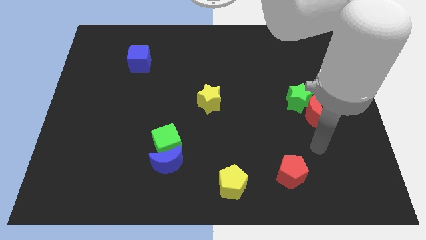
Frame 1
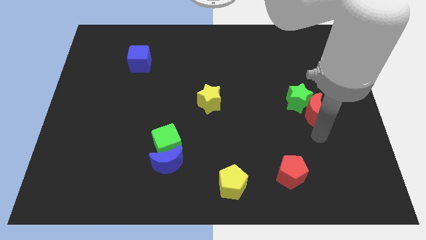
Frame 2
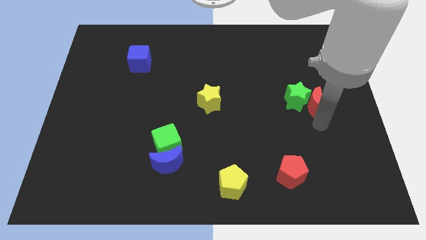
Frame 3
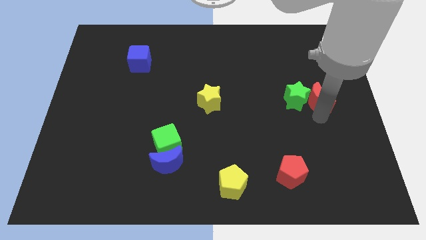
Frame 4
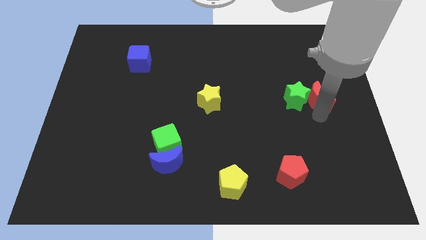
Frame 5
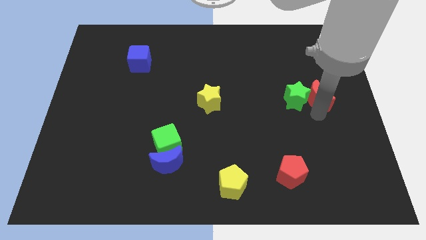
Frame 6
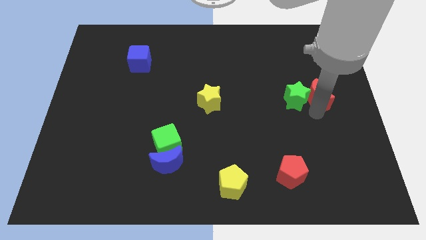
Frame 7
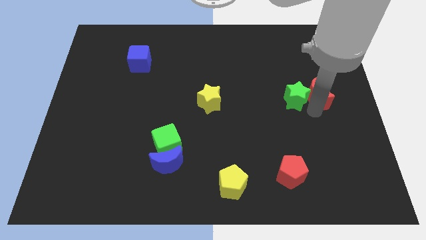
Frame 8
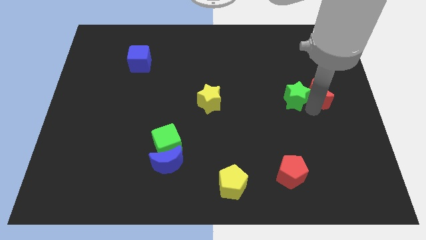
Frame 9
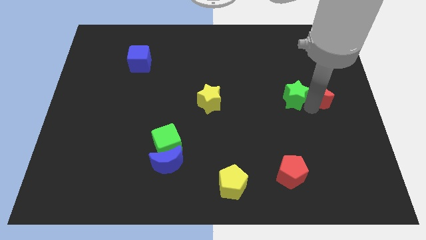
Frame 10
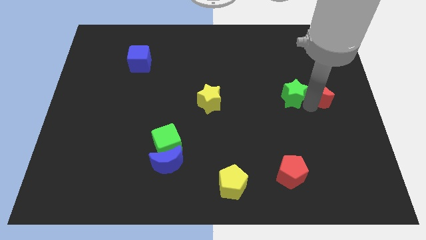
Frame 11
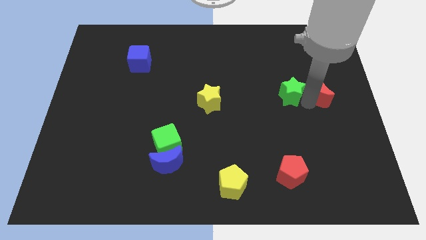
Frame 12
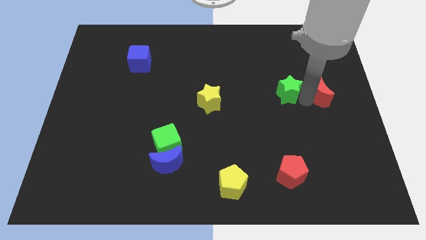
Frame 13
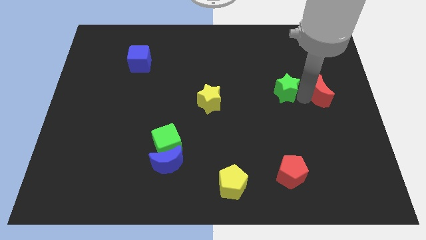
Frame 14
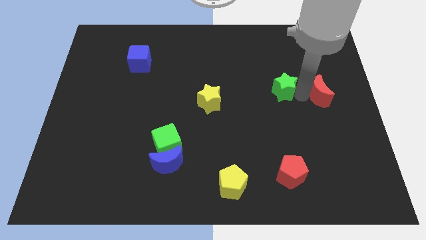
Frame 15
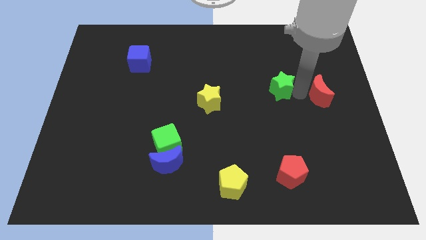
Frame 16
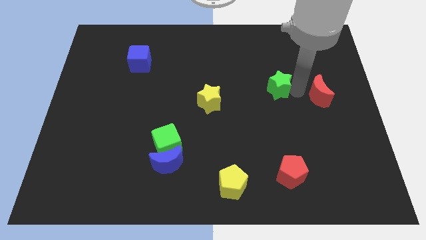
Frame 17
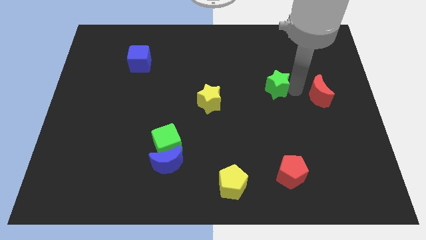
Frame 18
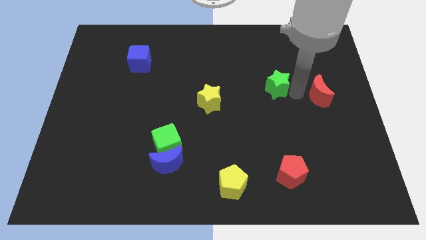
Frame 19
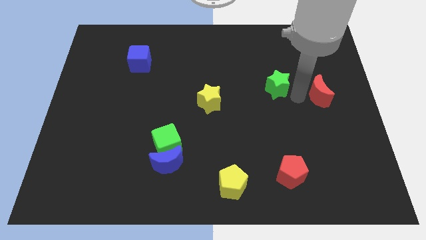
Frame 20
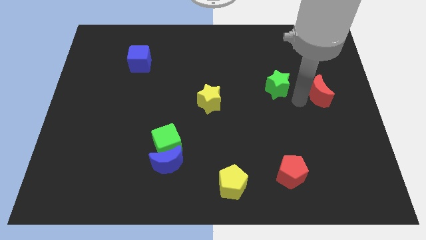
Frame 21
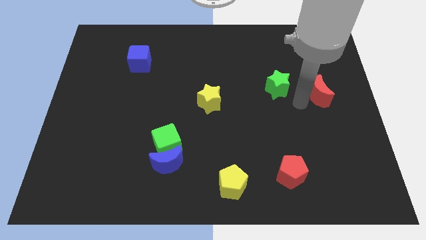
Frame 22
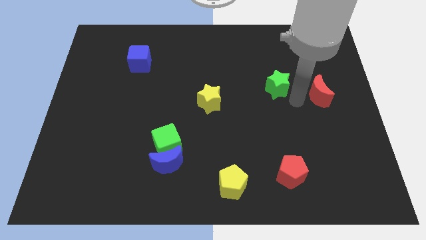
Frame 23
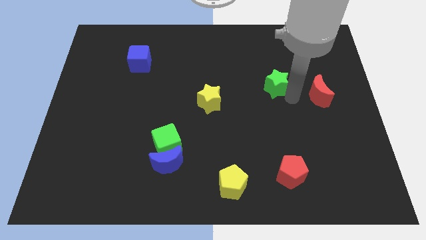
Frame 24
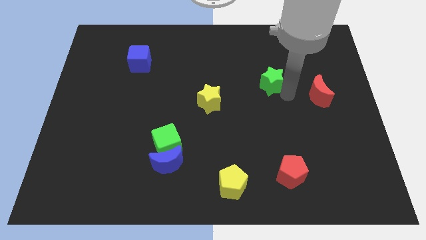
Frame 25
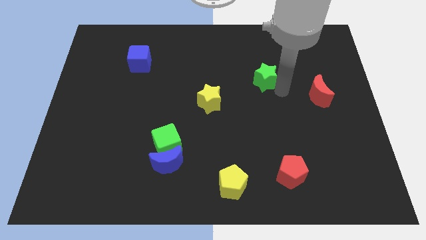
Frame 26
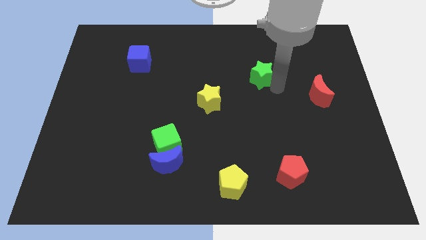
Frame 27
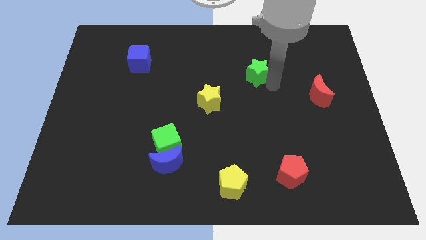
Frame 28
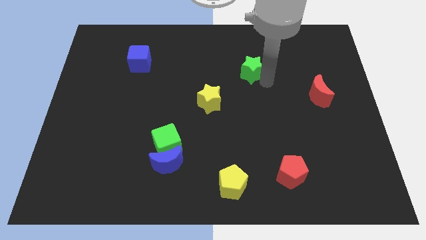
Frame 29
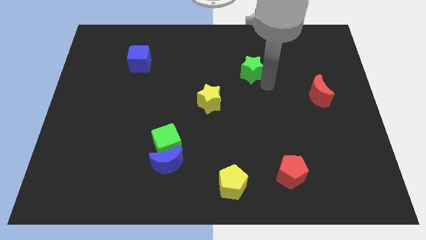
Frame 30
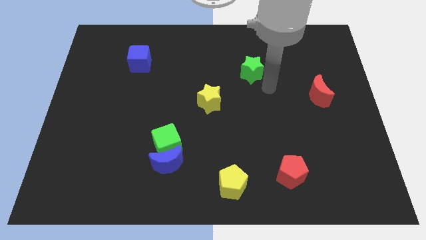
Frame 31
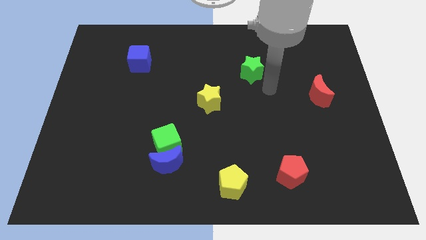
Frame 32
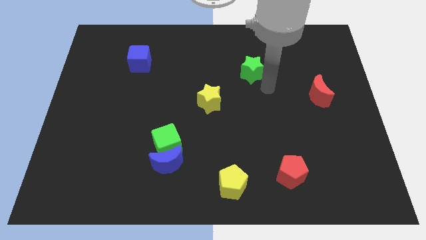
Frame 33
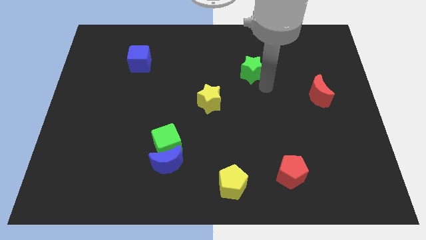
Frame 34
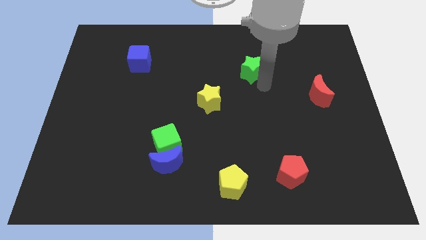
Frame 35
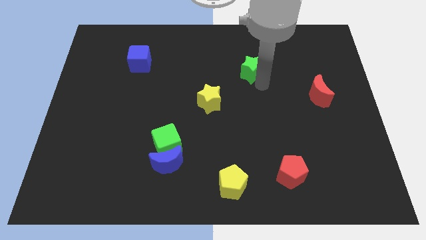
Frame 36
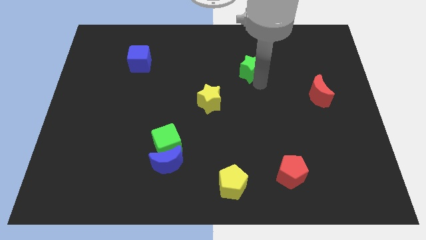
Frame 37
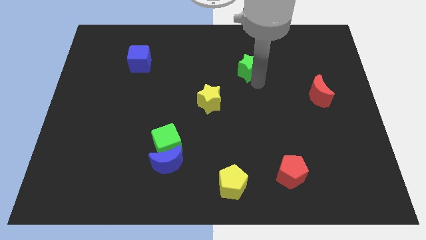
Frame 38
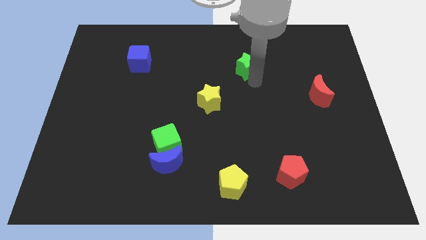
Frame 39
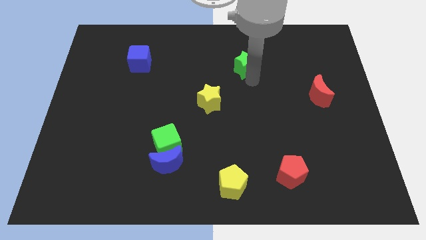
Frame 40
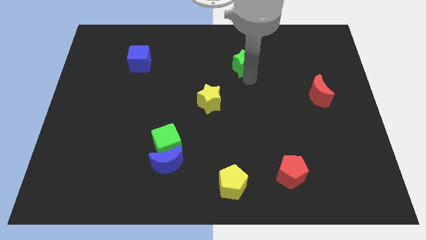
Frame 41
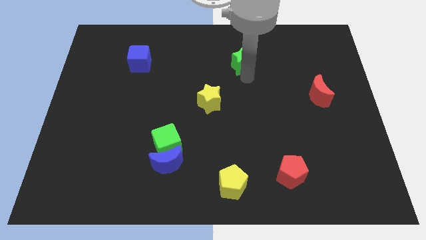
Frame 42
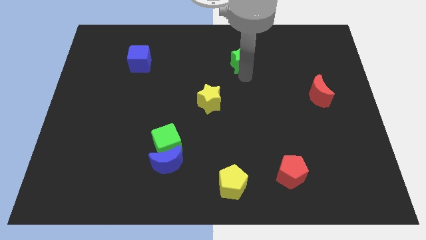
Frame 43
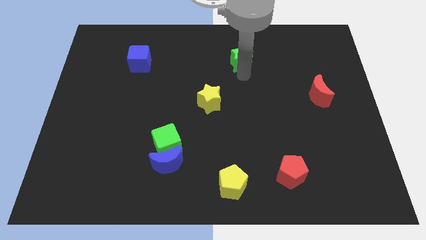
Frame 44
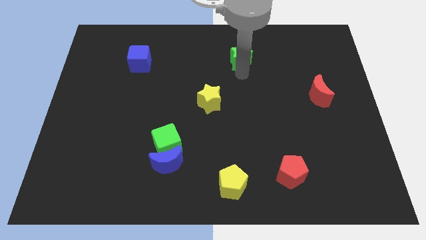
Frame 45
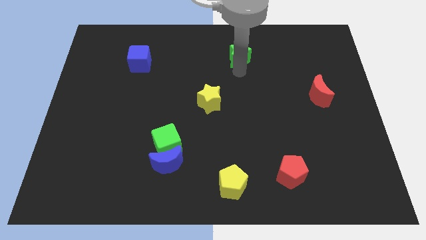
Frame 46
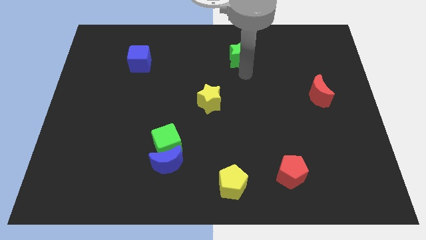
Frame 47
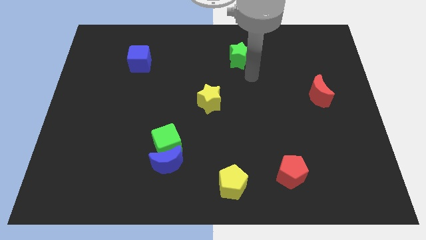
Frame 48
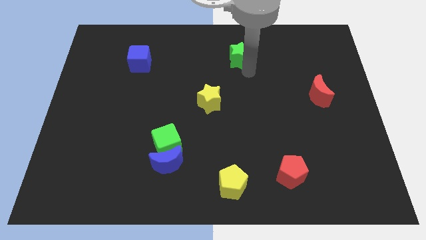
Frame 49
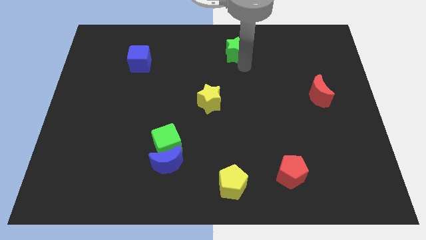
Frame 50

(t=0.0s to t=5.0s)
put the green star to the top

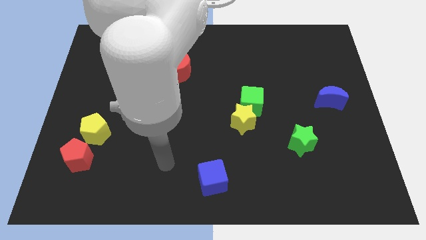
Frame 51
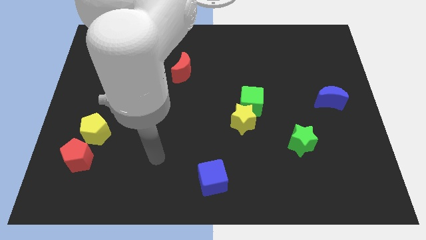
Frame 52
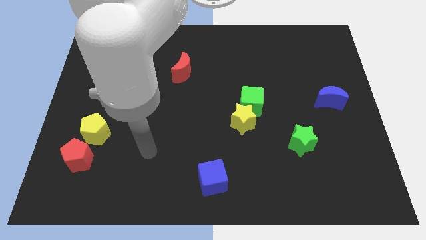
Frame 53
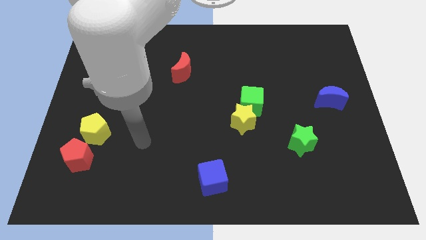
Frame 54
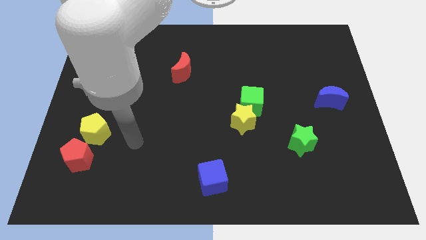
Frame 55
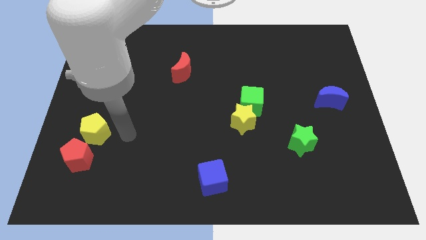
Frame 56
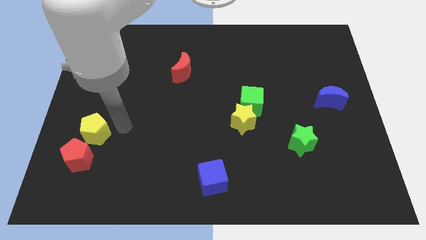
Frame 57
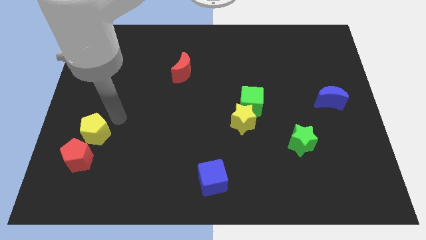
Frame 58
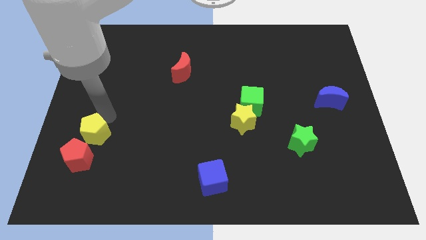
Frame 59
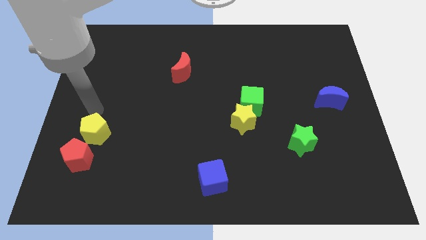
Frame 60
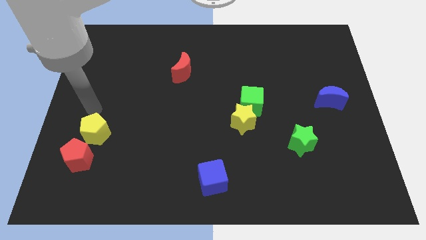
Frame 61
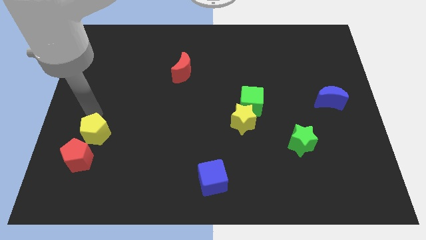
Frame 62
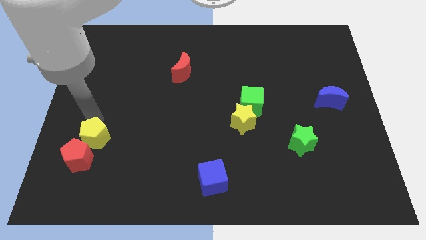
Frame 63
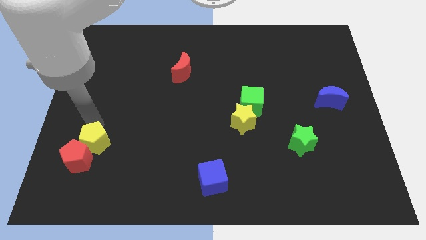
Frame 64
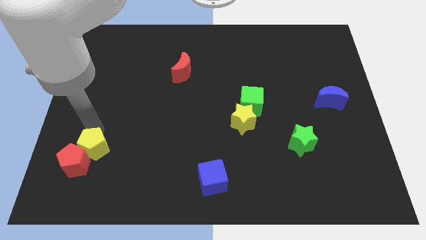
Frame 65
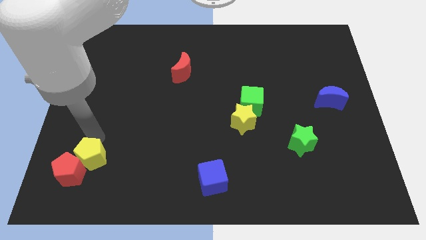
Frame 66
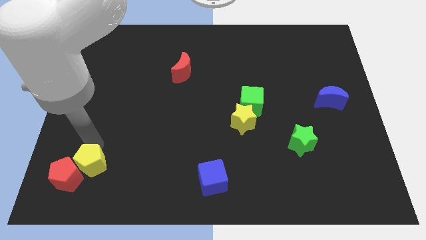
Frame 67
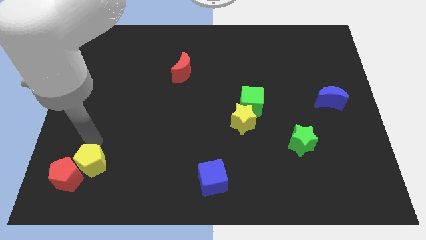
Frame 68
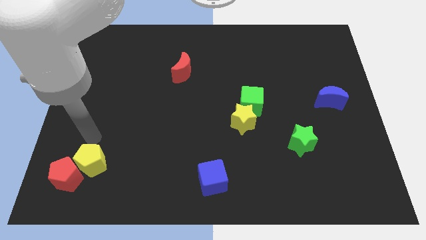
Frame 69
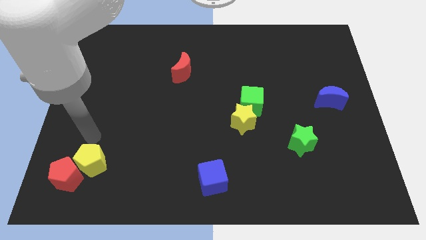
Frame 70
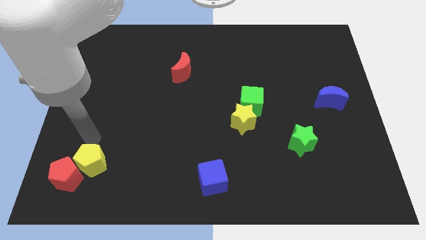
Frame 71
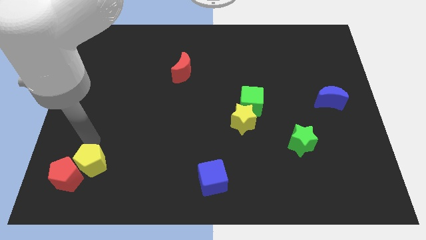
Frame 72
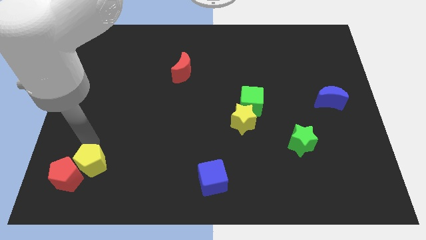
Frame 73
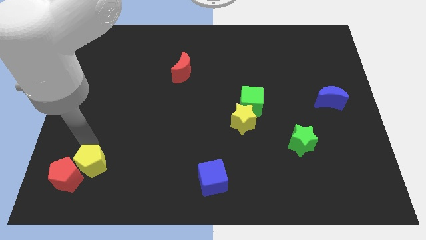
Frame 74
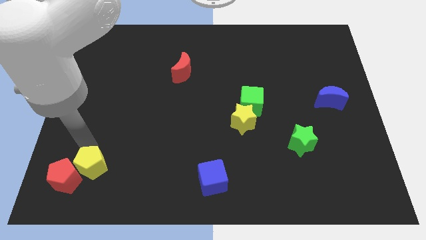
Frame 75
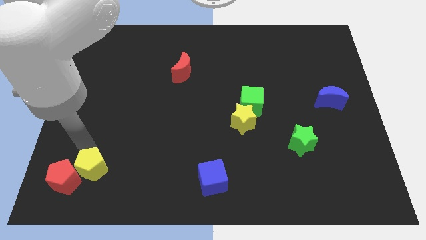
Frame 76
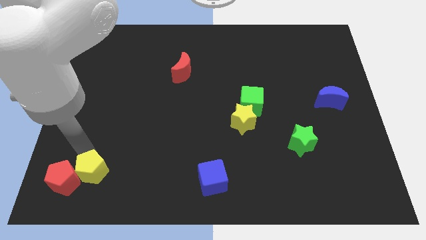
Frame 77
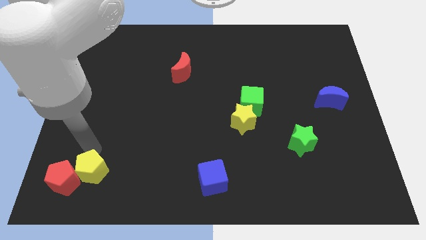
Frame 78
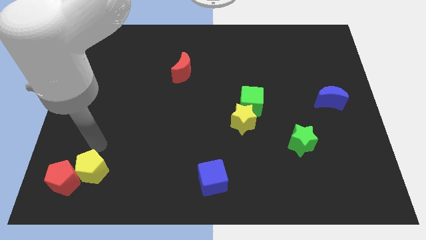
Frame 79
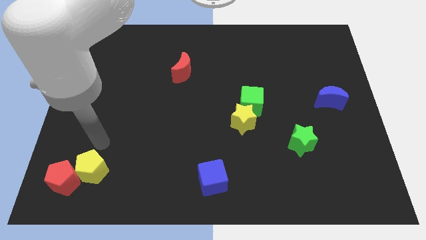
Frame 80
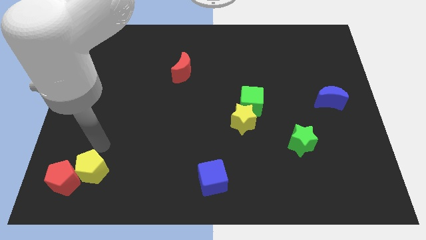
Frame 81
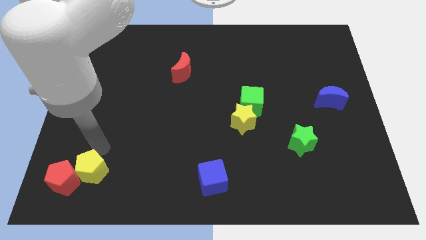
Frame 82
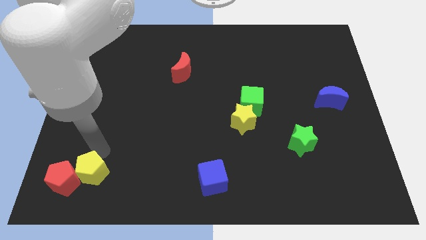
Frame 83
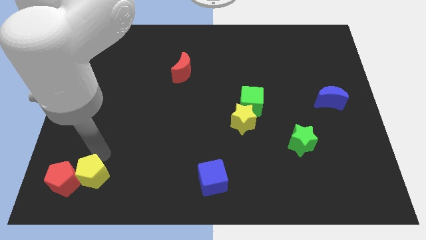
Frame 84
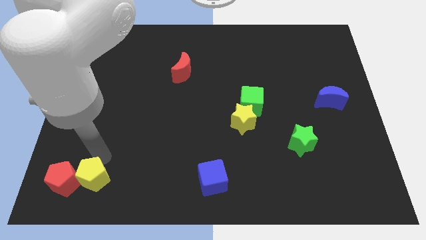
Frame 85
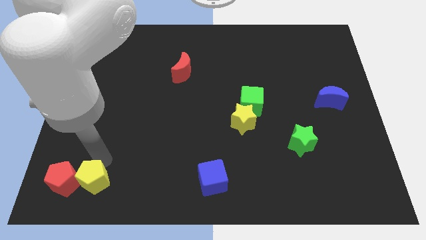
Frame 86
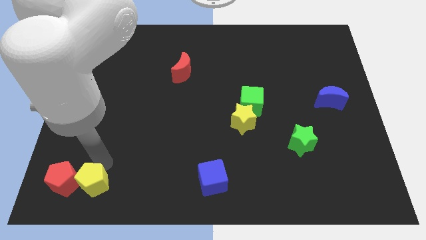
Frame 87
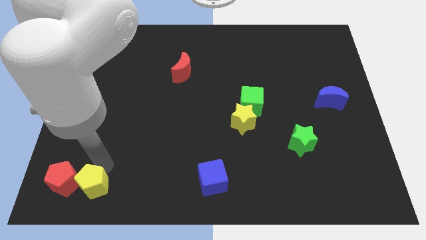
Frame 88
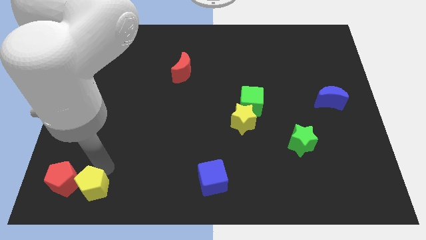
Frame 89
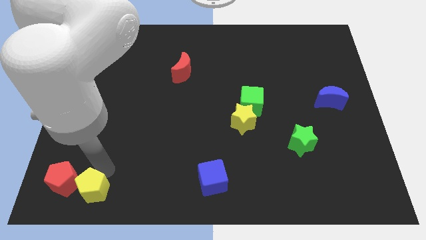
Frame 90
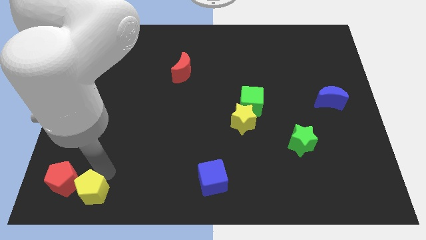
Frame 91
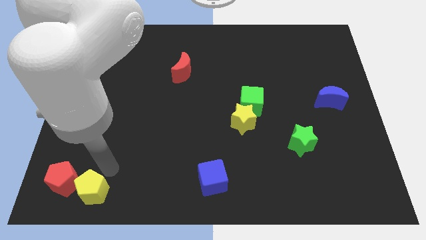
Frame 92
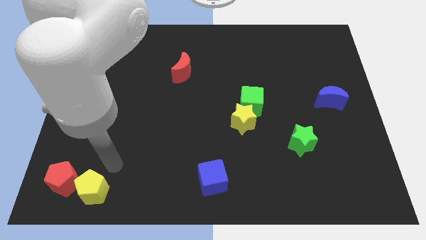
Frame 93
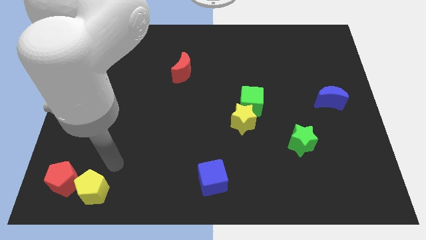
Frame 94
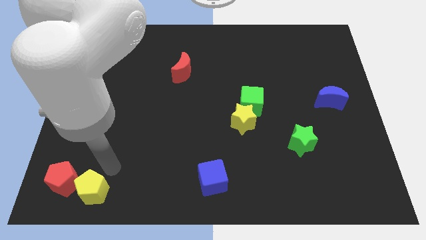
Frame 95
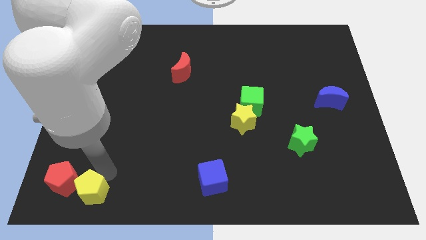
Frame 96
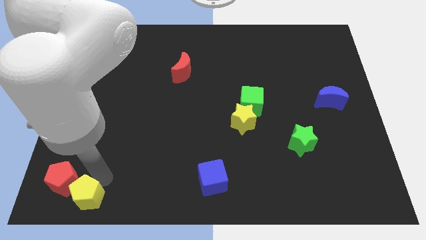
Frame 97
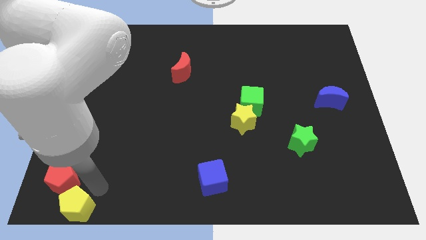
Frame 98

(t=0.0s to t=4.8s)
put the yellow pentagon to the lower left corner
